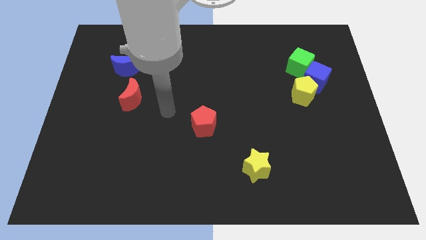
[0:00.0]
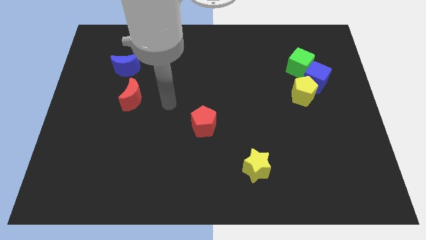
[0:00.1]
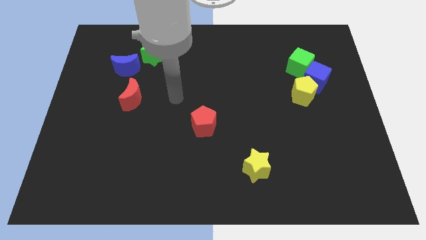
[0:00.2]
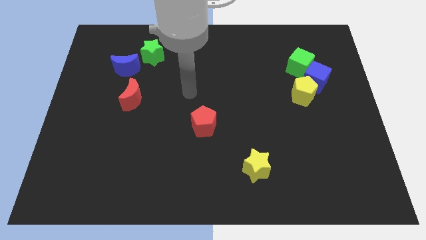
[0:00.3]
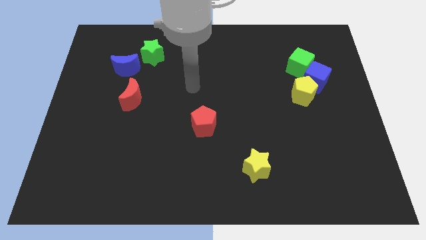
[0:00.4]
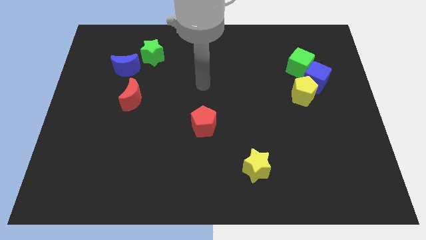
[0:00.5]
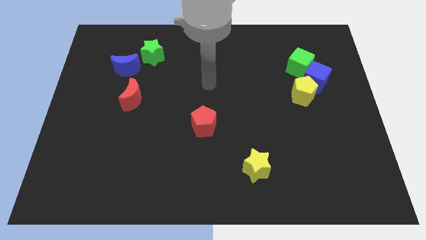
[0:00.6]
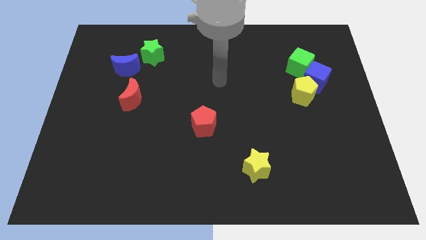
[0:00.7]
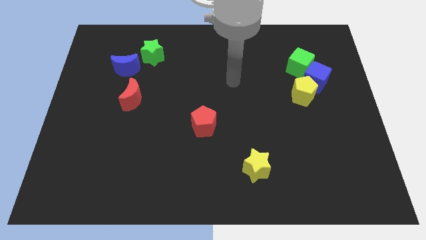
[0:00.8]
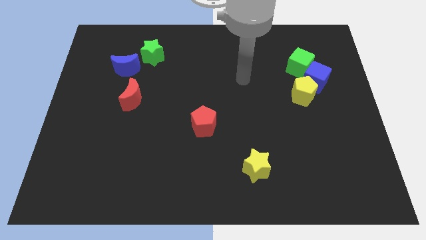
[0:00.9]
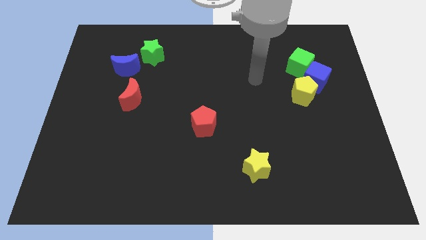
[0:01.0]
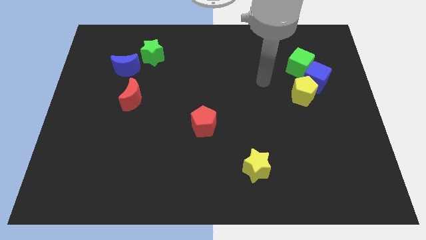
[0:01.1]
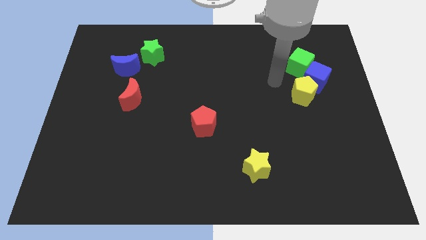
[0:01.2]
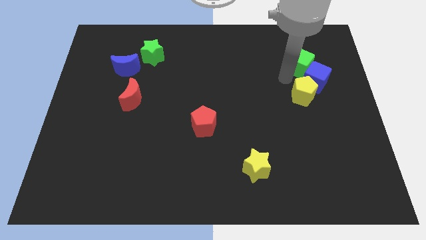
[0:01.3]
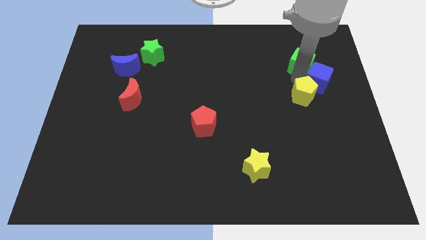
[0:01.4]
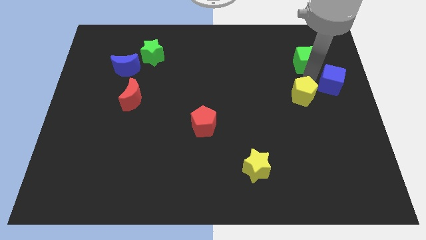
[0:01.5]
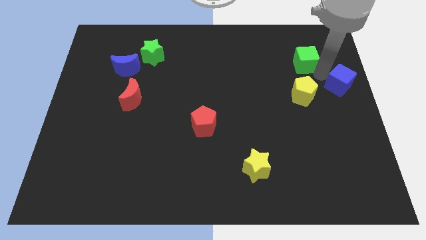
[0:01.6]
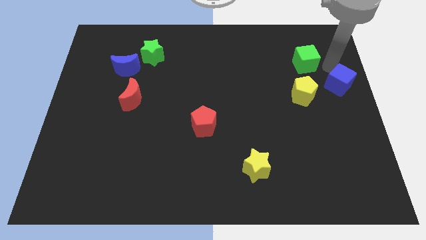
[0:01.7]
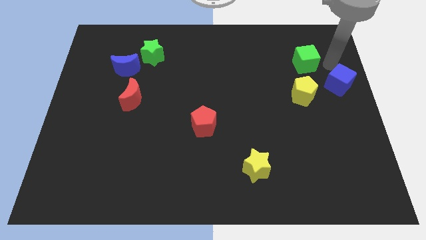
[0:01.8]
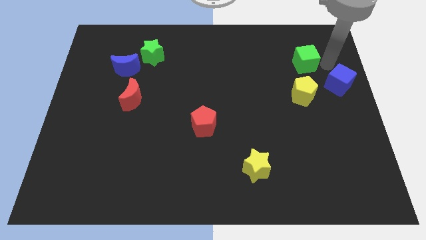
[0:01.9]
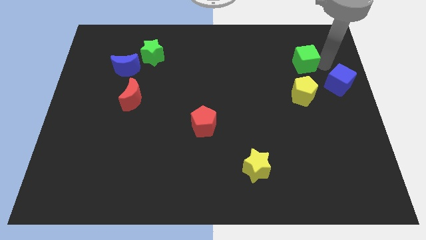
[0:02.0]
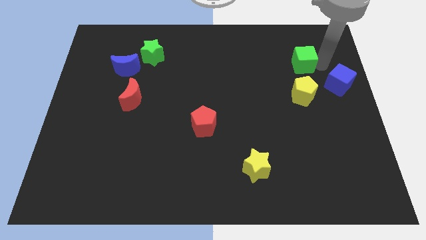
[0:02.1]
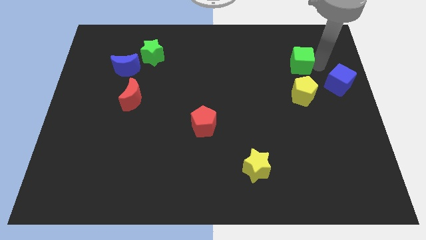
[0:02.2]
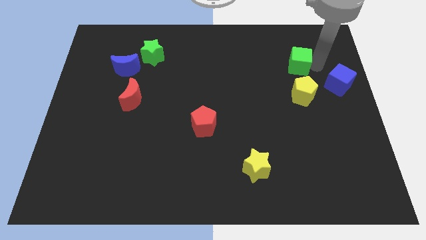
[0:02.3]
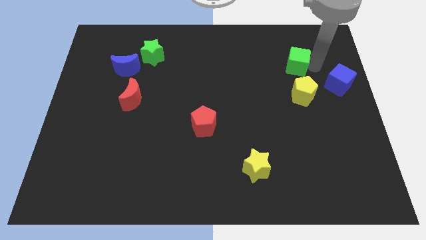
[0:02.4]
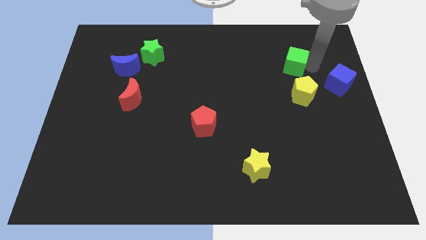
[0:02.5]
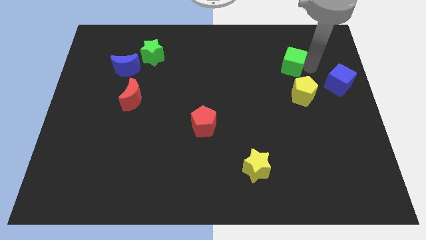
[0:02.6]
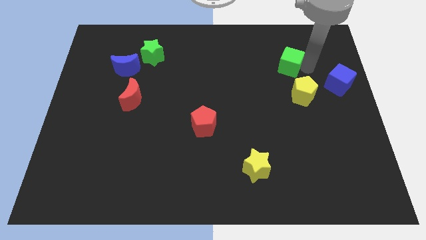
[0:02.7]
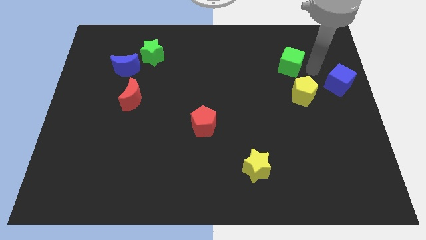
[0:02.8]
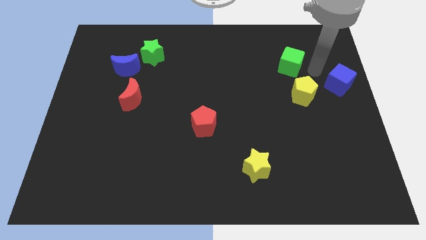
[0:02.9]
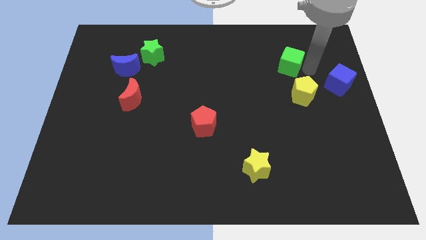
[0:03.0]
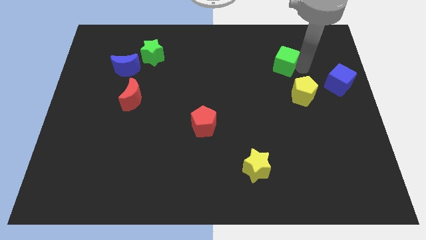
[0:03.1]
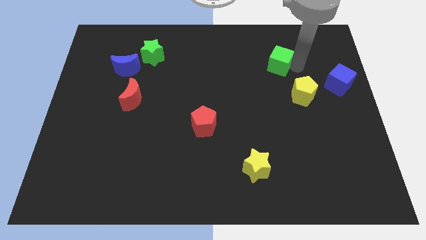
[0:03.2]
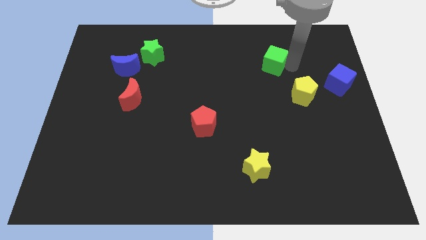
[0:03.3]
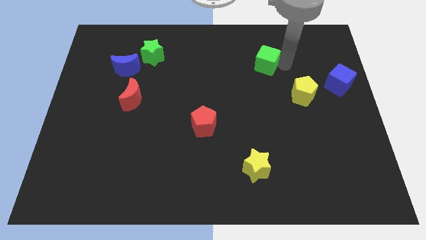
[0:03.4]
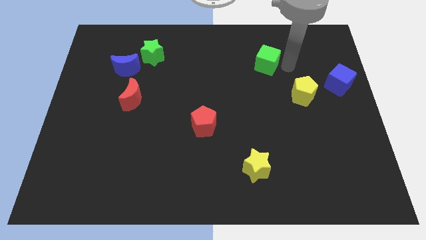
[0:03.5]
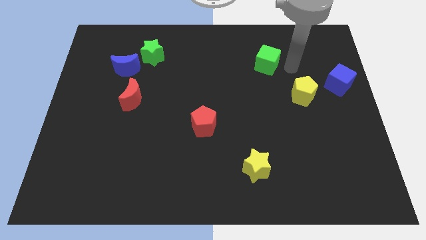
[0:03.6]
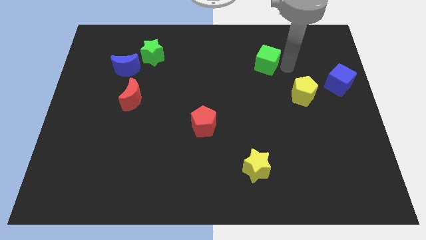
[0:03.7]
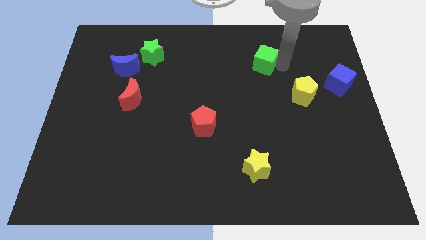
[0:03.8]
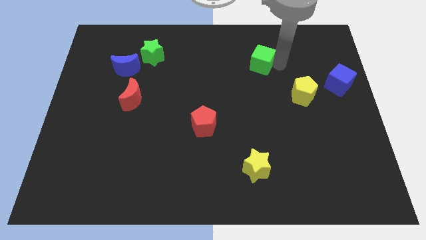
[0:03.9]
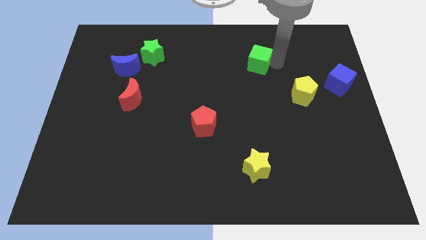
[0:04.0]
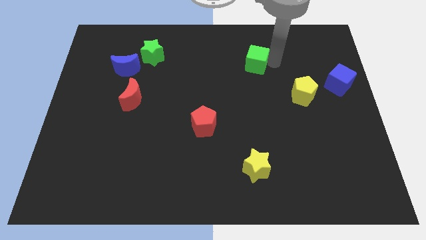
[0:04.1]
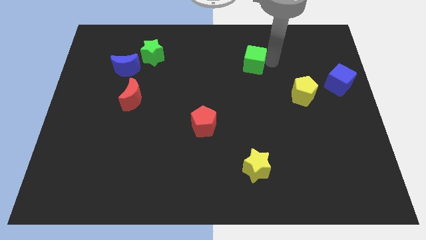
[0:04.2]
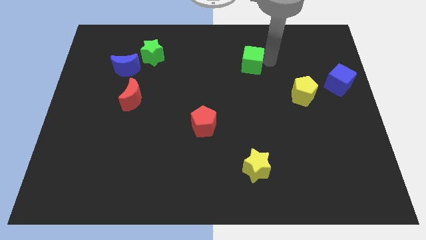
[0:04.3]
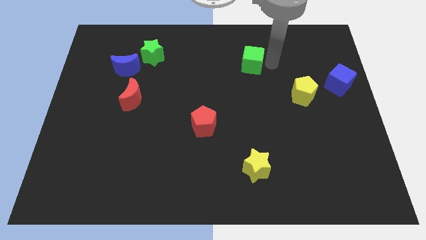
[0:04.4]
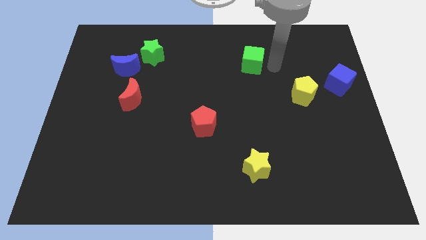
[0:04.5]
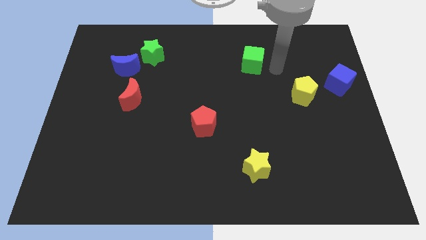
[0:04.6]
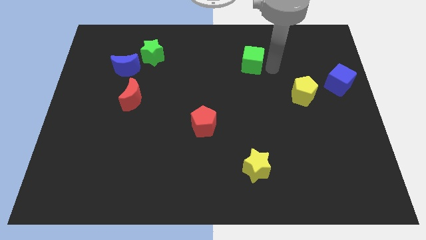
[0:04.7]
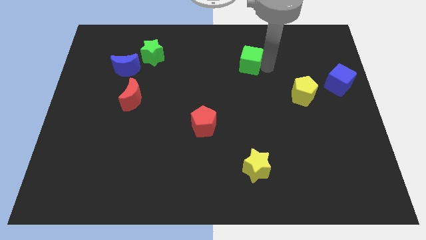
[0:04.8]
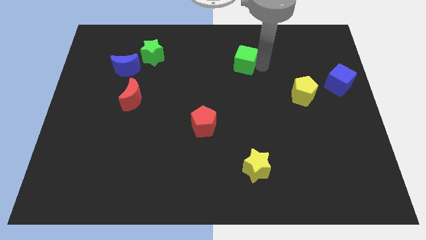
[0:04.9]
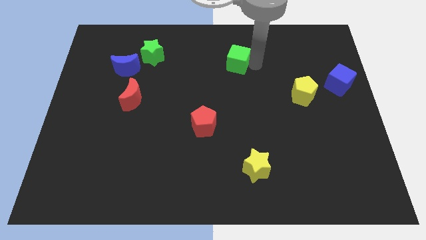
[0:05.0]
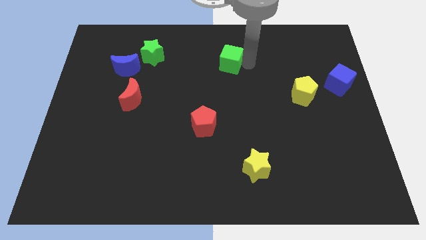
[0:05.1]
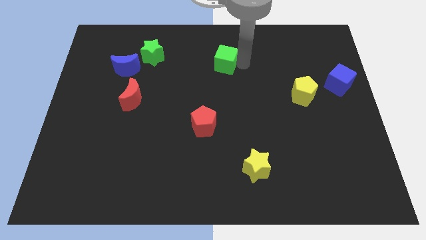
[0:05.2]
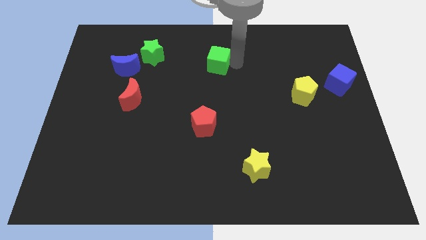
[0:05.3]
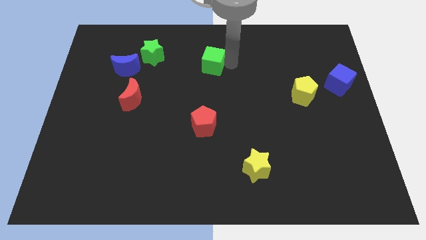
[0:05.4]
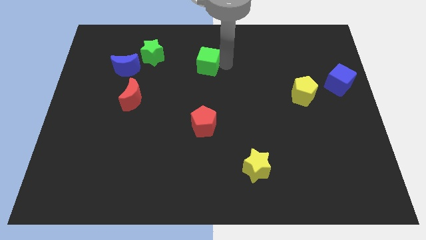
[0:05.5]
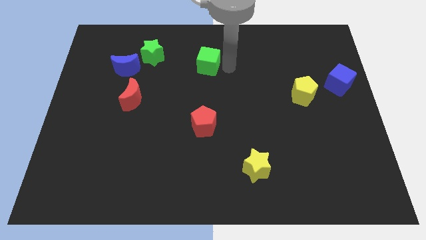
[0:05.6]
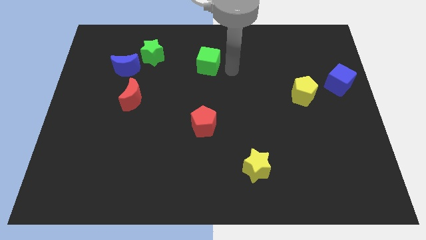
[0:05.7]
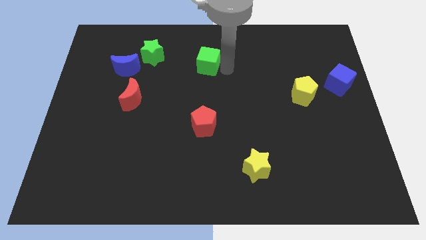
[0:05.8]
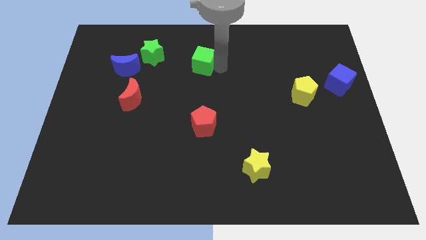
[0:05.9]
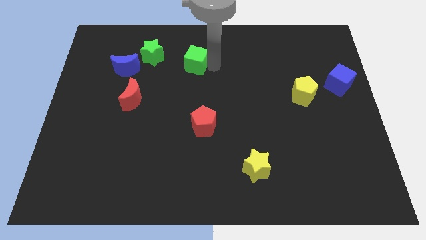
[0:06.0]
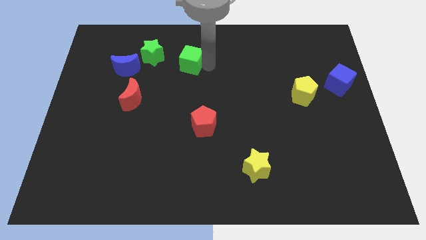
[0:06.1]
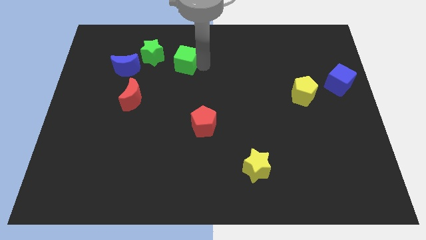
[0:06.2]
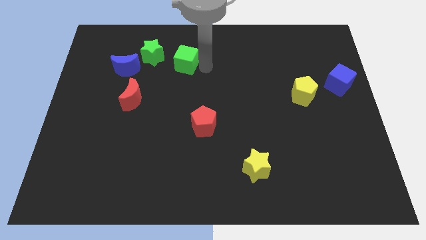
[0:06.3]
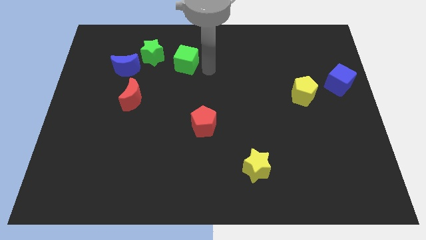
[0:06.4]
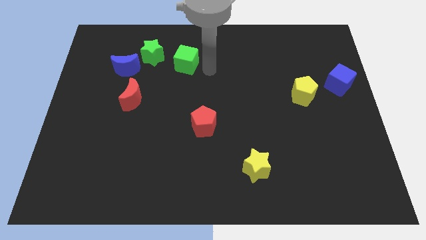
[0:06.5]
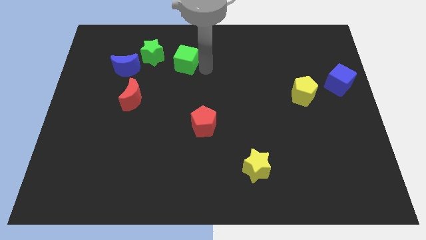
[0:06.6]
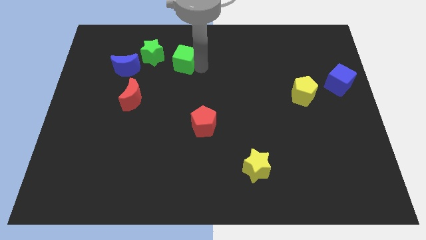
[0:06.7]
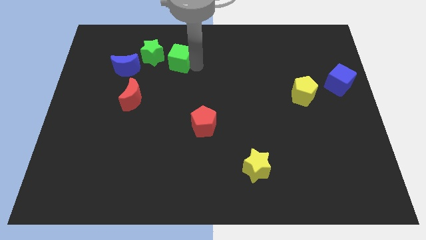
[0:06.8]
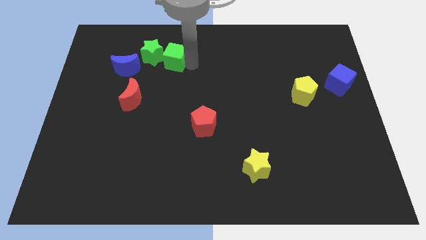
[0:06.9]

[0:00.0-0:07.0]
slide the green cube close to the green star

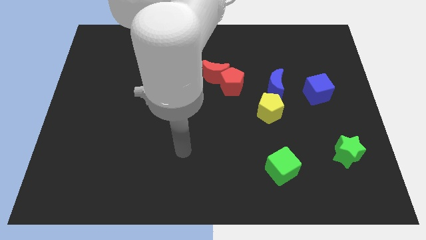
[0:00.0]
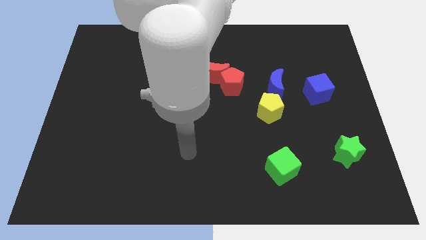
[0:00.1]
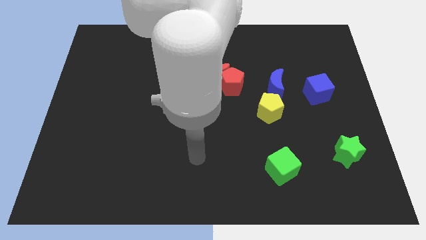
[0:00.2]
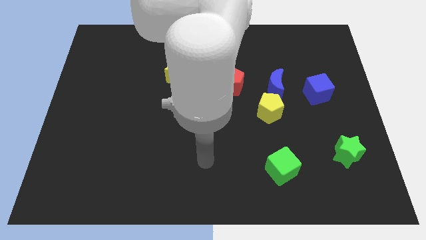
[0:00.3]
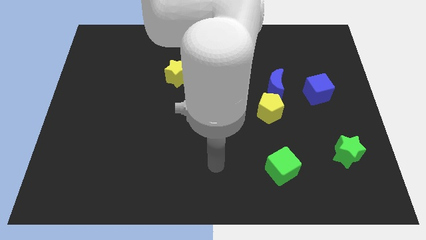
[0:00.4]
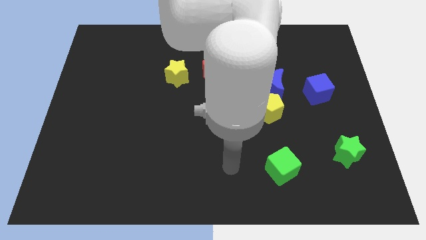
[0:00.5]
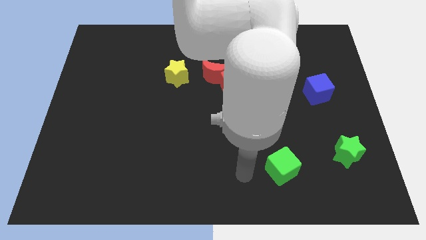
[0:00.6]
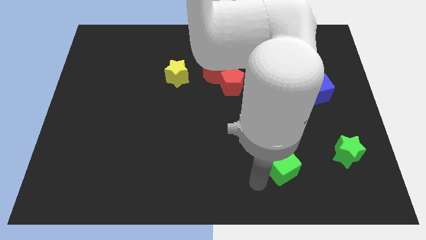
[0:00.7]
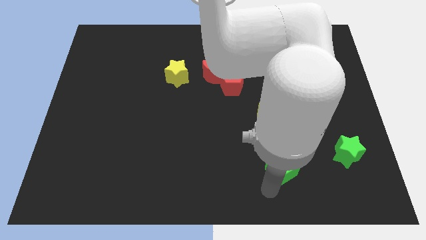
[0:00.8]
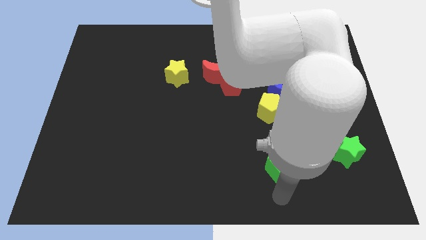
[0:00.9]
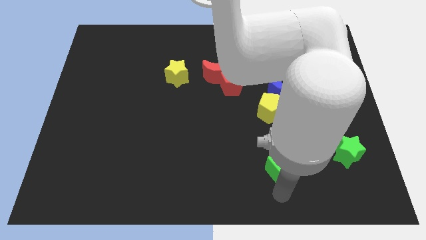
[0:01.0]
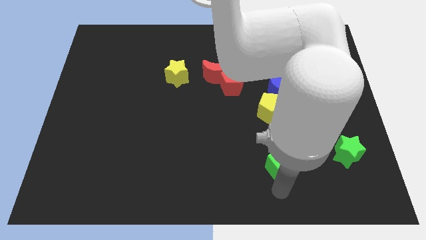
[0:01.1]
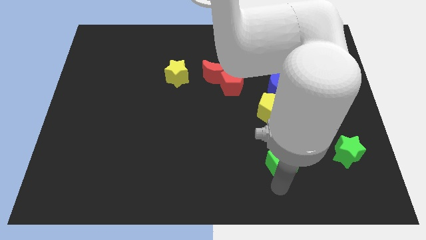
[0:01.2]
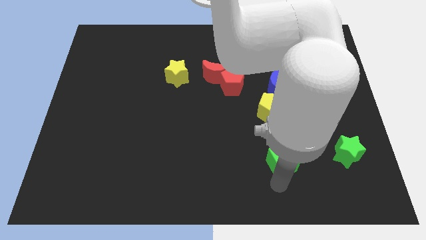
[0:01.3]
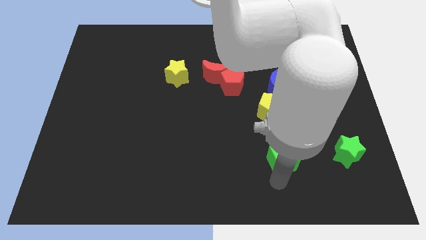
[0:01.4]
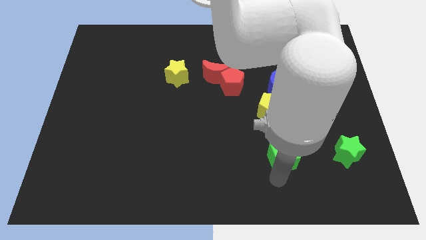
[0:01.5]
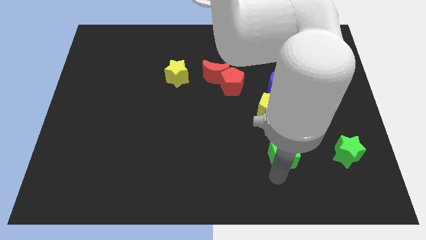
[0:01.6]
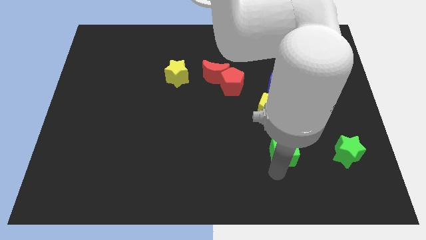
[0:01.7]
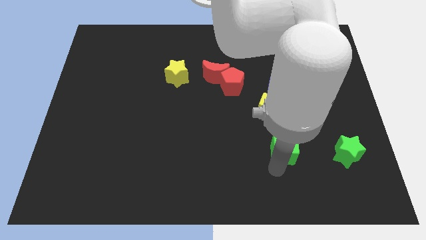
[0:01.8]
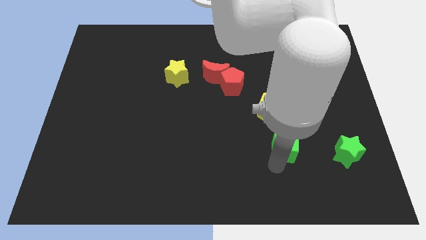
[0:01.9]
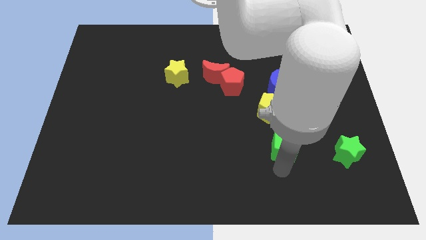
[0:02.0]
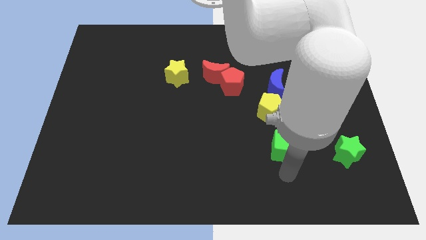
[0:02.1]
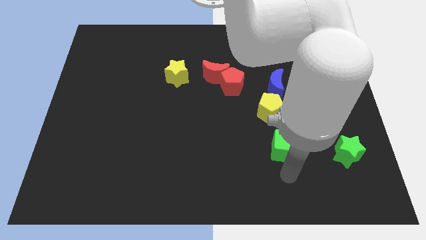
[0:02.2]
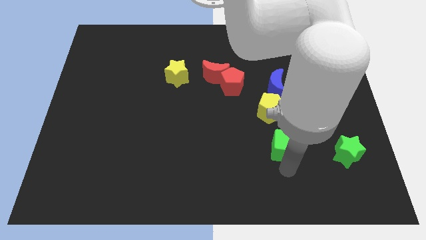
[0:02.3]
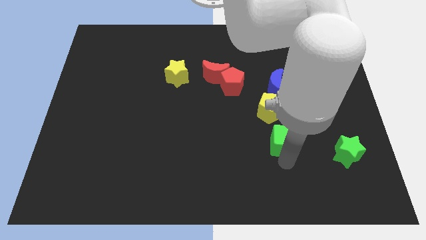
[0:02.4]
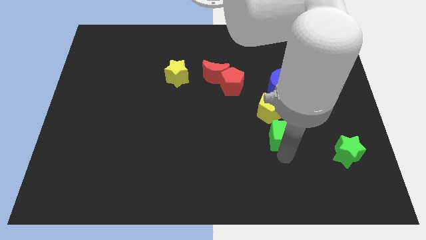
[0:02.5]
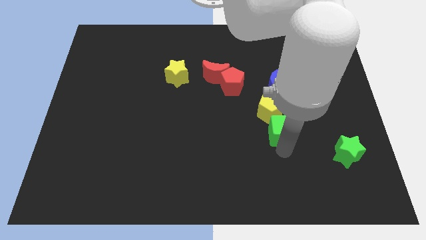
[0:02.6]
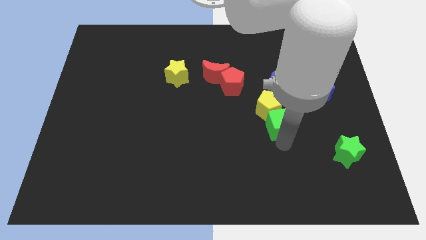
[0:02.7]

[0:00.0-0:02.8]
slide the green cube close to the yellow pentagon
